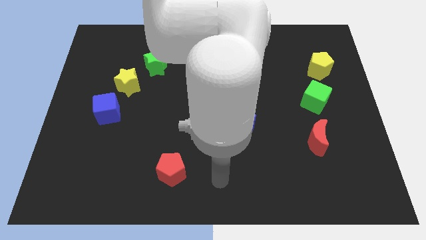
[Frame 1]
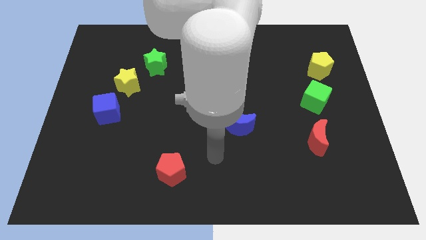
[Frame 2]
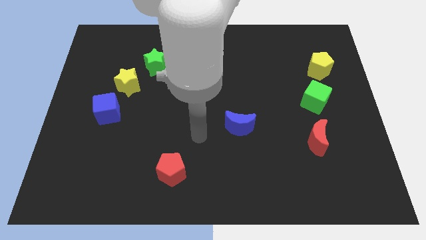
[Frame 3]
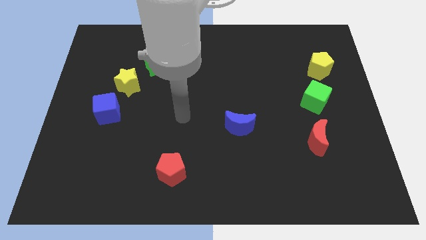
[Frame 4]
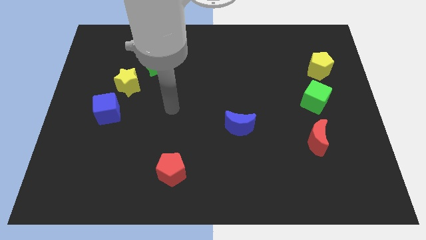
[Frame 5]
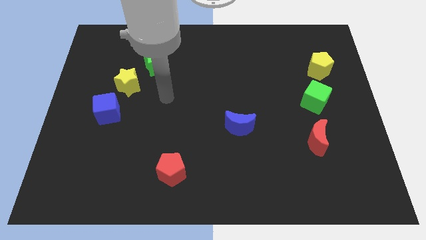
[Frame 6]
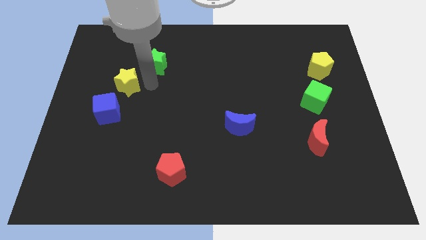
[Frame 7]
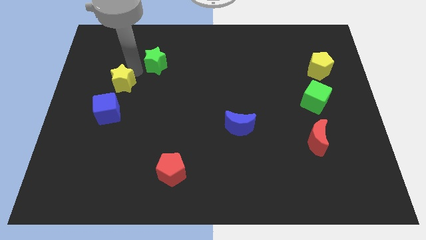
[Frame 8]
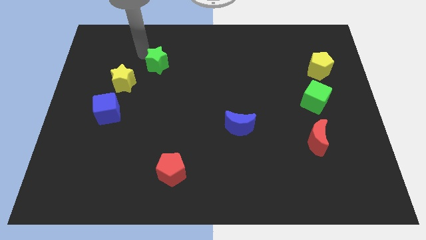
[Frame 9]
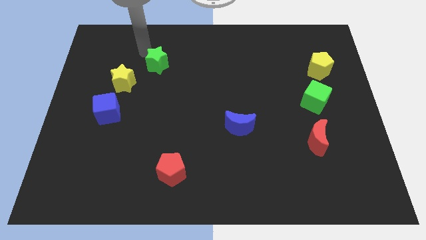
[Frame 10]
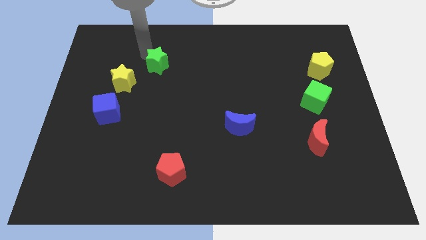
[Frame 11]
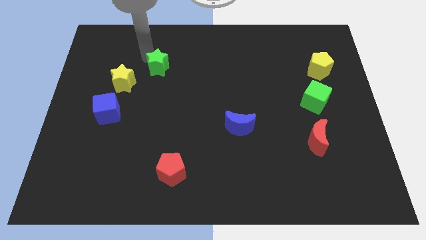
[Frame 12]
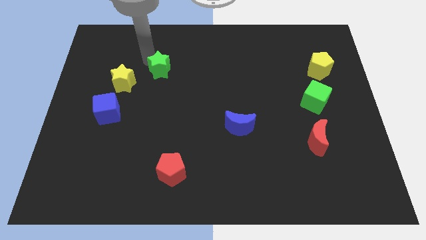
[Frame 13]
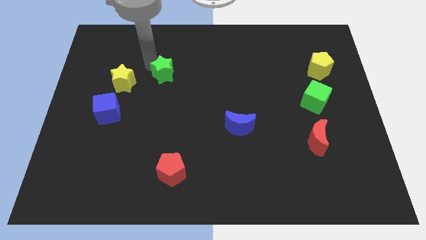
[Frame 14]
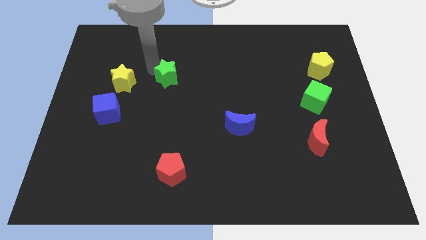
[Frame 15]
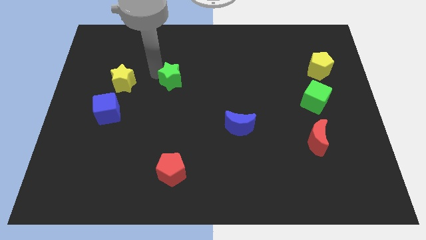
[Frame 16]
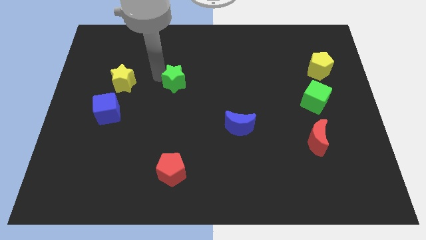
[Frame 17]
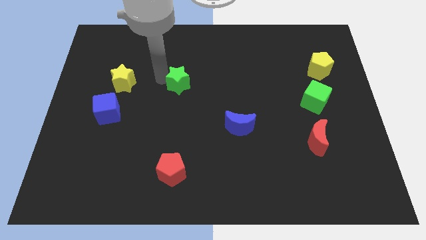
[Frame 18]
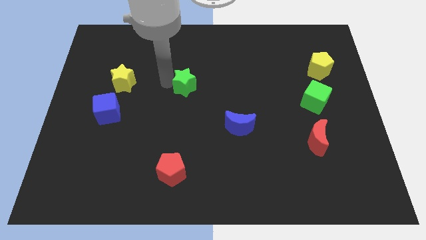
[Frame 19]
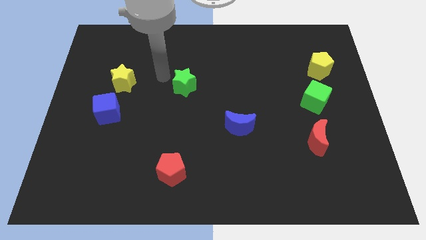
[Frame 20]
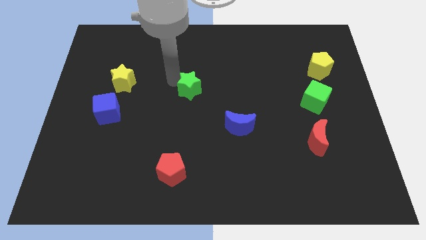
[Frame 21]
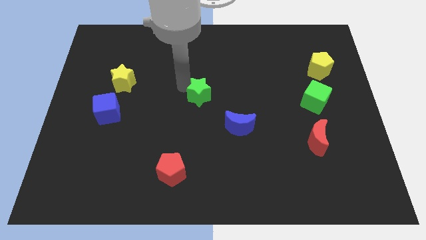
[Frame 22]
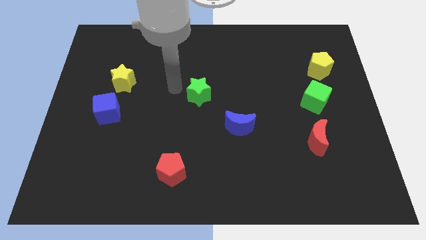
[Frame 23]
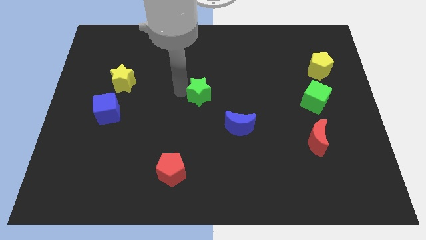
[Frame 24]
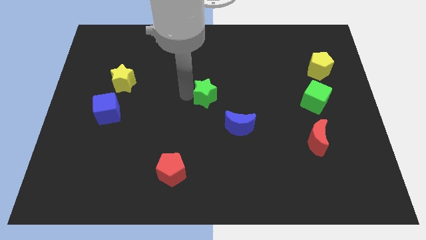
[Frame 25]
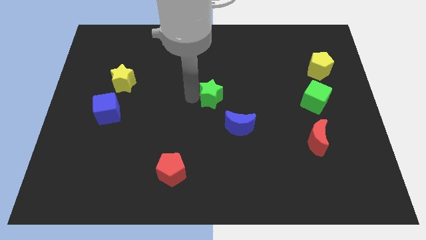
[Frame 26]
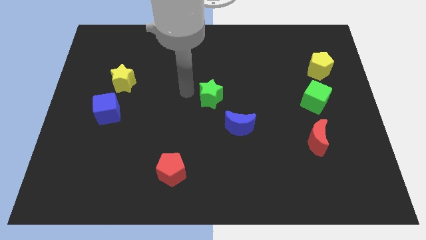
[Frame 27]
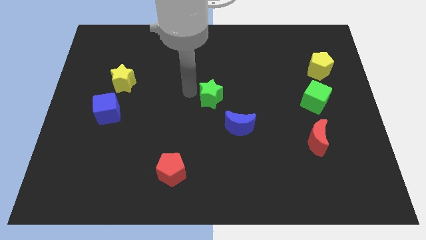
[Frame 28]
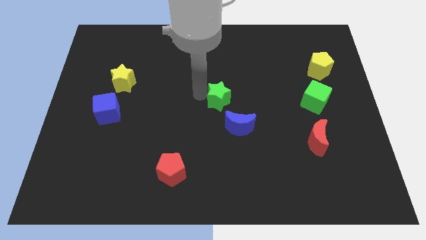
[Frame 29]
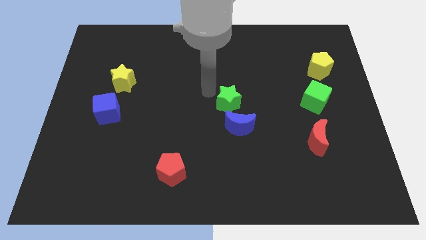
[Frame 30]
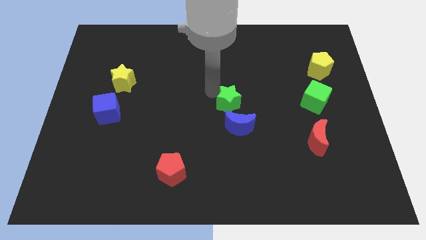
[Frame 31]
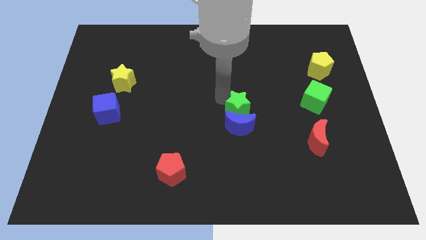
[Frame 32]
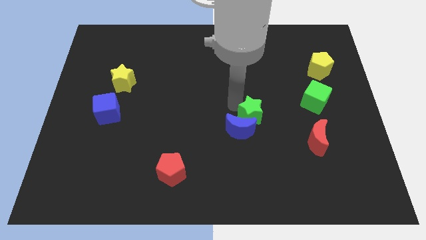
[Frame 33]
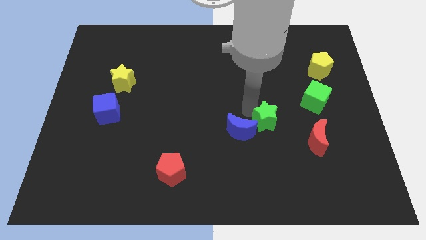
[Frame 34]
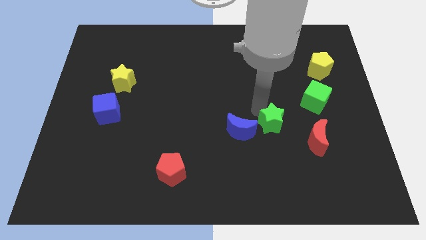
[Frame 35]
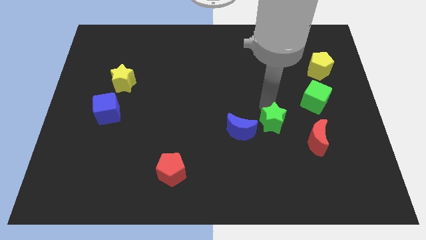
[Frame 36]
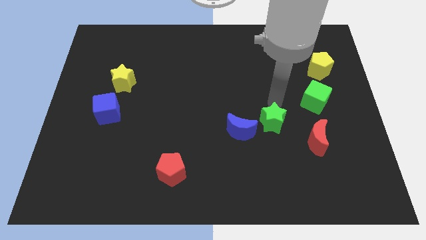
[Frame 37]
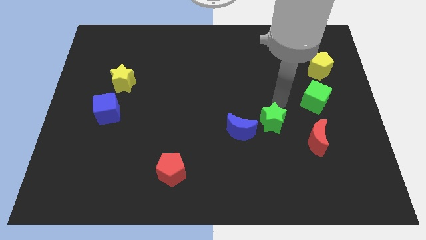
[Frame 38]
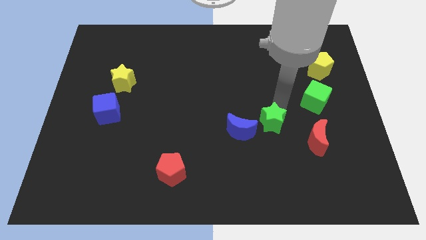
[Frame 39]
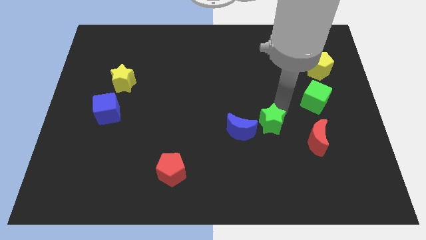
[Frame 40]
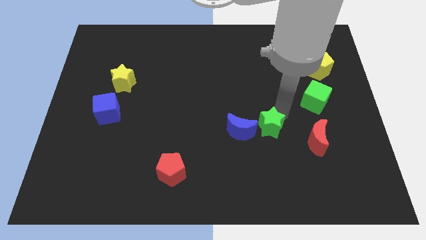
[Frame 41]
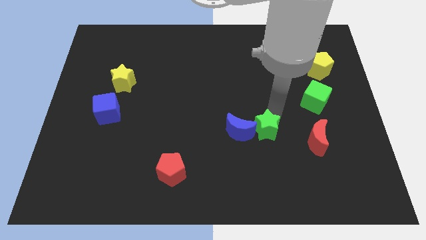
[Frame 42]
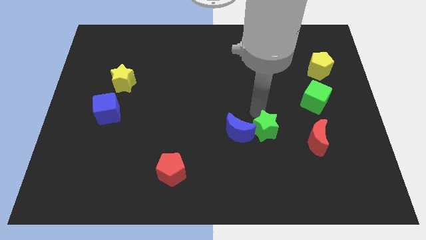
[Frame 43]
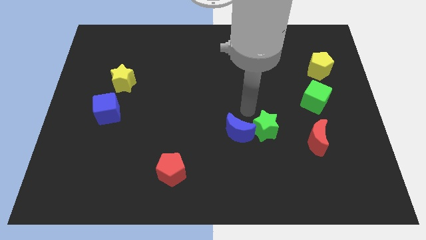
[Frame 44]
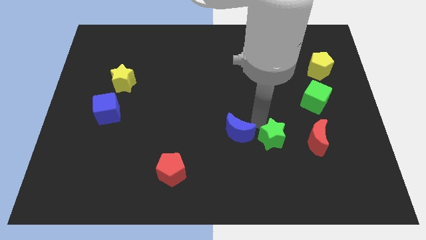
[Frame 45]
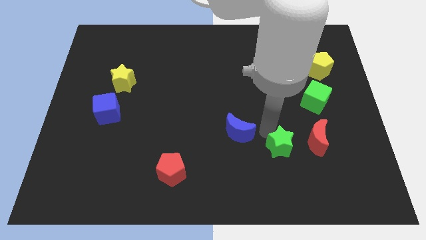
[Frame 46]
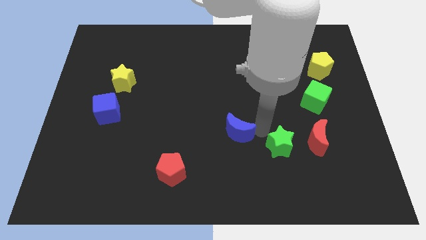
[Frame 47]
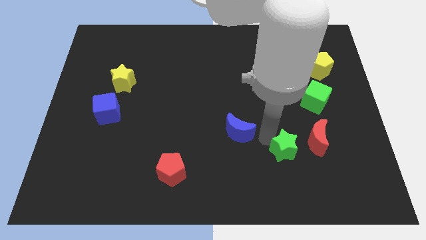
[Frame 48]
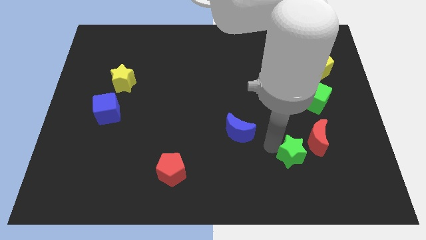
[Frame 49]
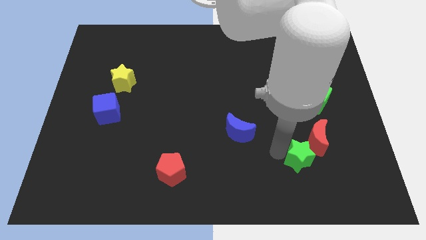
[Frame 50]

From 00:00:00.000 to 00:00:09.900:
put the green star to the bottom of the red moon

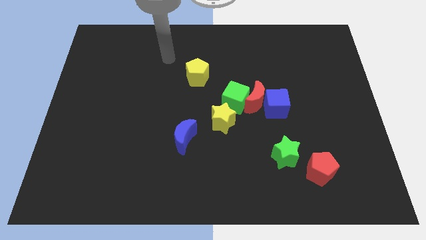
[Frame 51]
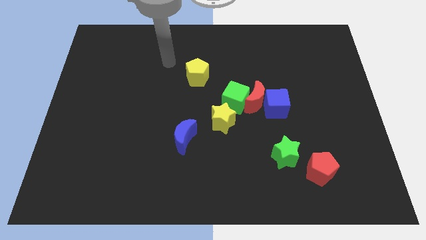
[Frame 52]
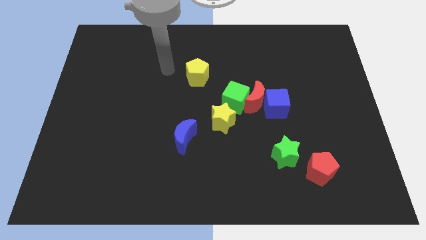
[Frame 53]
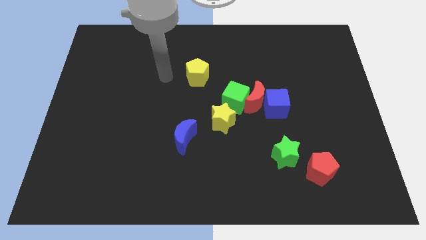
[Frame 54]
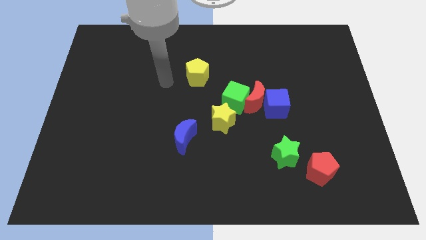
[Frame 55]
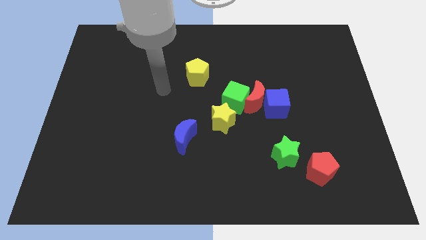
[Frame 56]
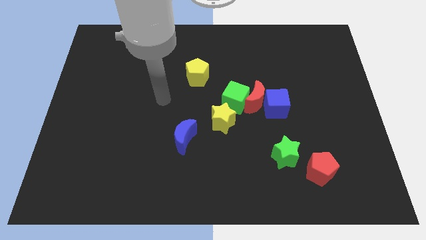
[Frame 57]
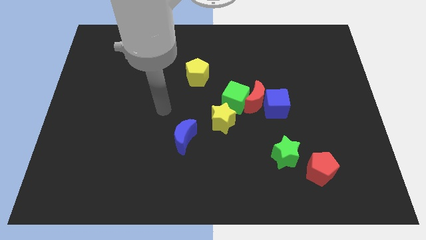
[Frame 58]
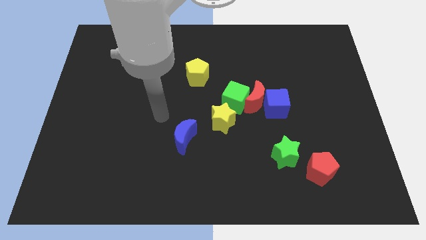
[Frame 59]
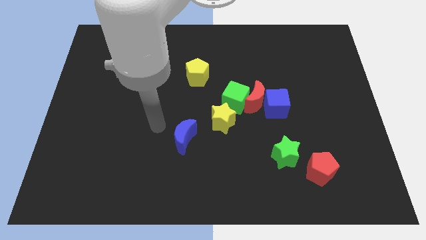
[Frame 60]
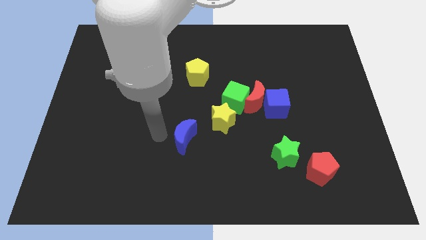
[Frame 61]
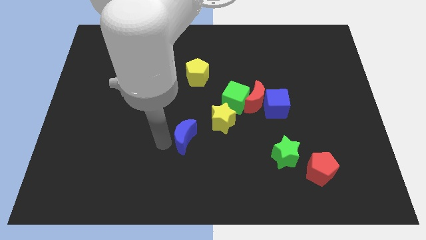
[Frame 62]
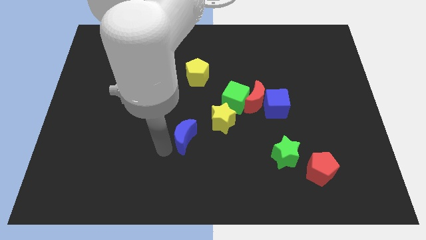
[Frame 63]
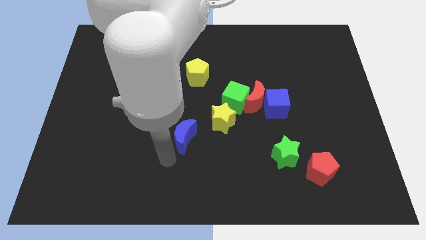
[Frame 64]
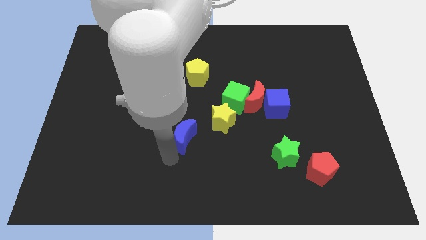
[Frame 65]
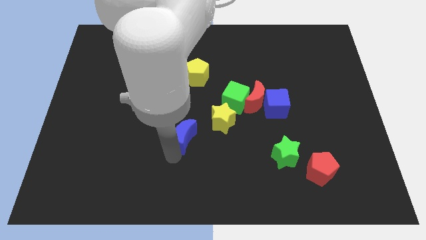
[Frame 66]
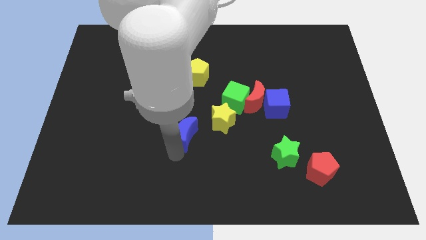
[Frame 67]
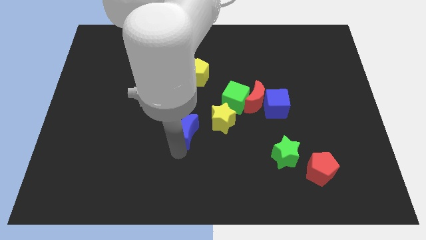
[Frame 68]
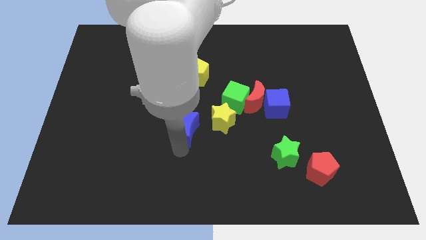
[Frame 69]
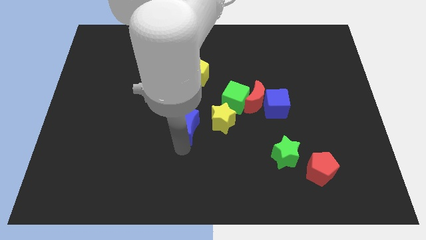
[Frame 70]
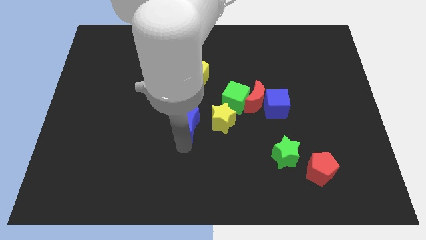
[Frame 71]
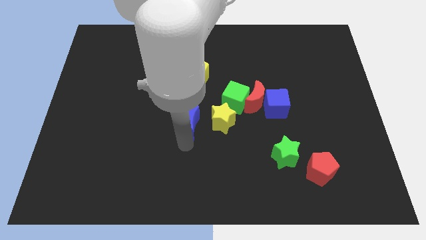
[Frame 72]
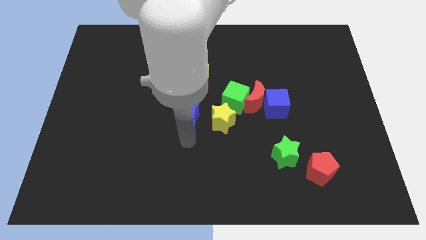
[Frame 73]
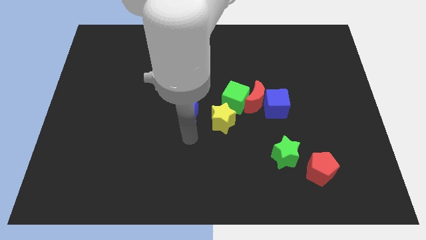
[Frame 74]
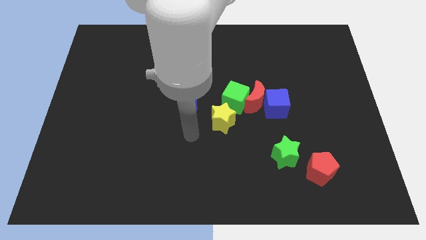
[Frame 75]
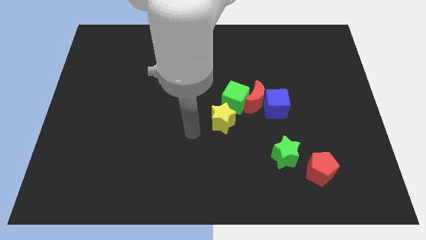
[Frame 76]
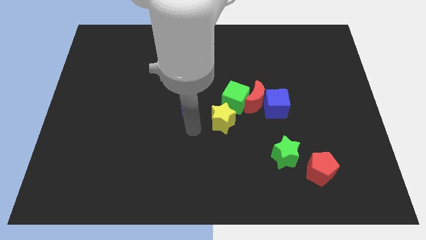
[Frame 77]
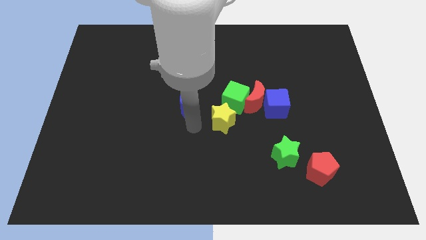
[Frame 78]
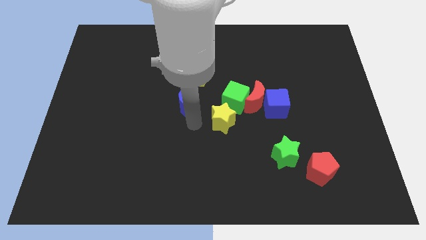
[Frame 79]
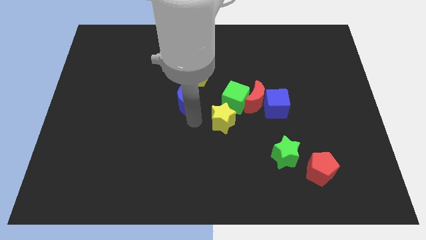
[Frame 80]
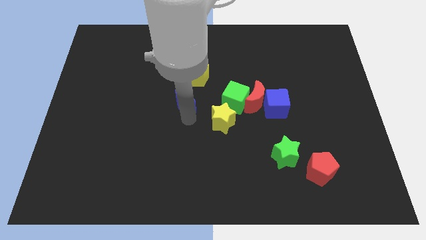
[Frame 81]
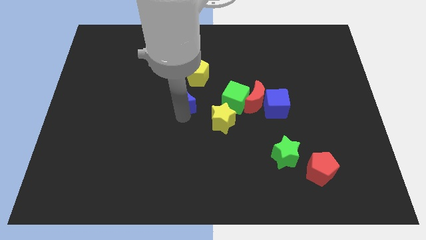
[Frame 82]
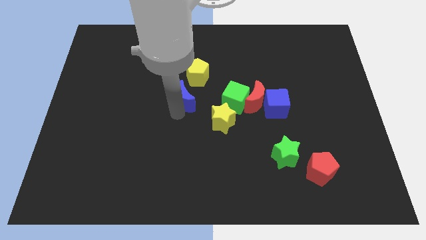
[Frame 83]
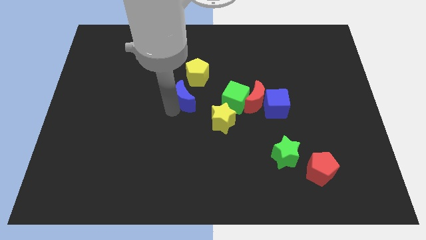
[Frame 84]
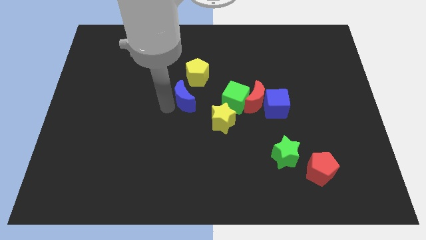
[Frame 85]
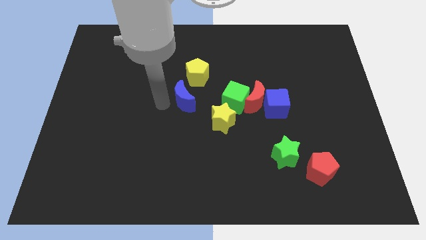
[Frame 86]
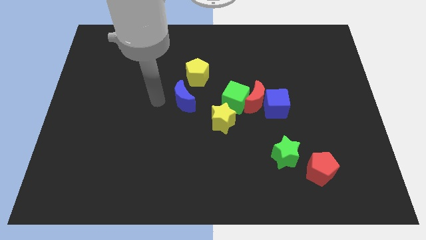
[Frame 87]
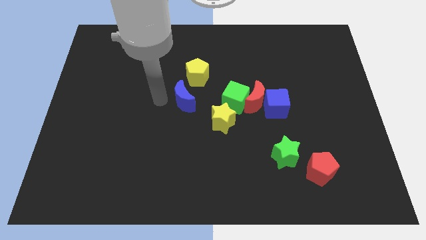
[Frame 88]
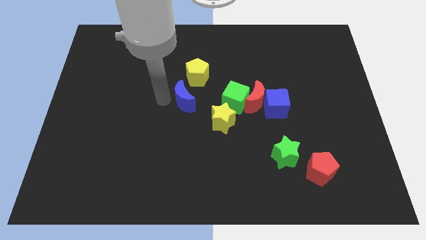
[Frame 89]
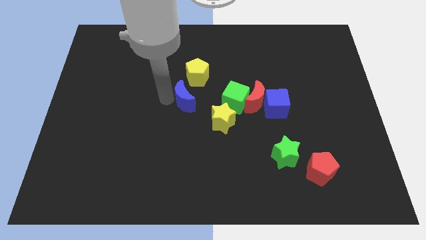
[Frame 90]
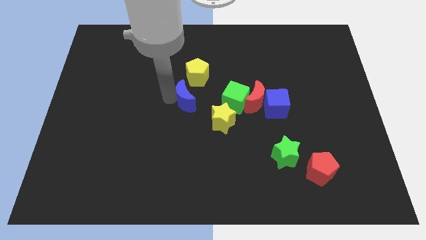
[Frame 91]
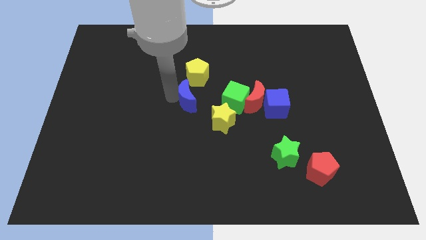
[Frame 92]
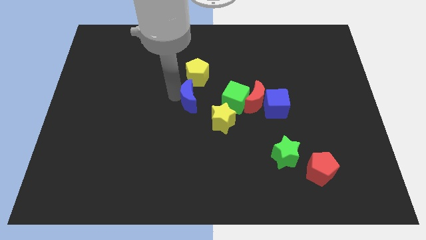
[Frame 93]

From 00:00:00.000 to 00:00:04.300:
slide the blue moon to the left of the red moon
